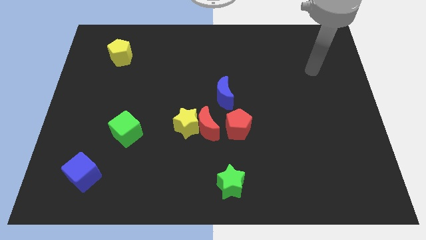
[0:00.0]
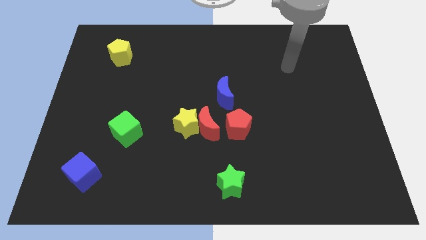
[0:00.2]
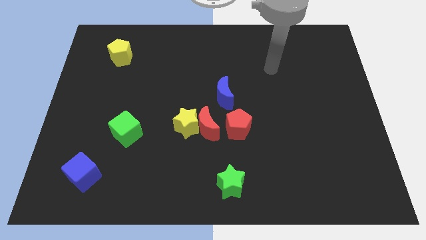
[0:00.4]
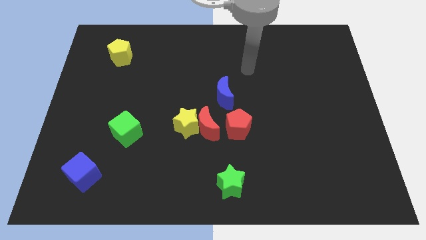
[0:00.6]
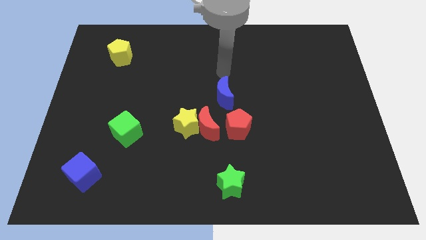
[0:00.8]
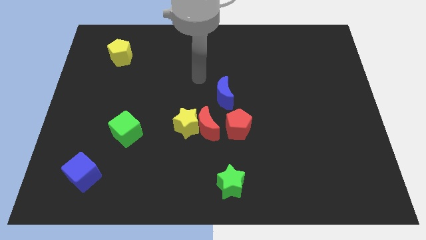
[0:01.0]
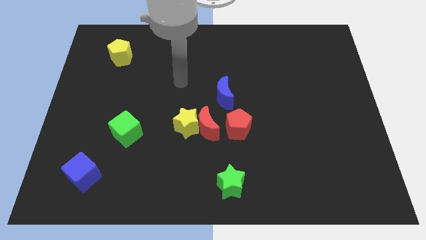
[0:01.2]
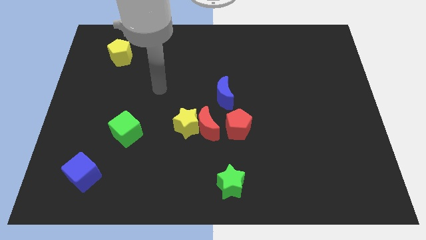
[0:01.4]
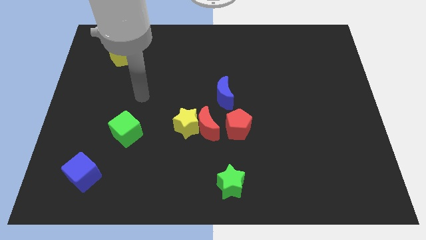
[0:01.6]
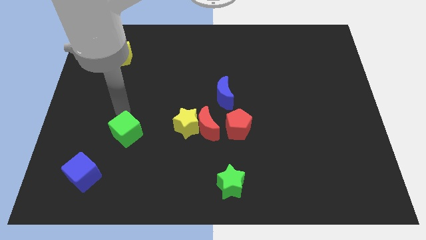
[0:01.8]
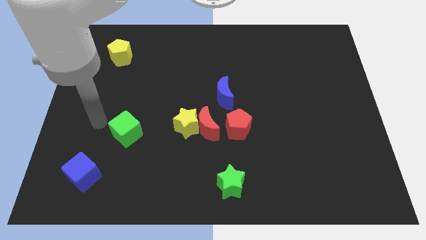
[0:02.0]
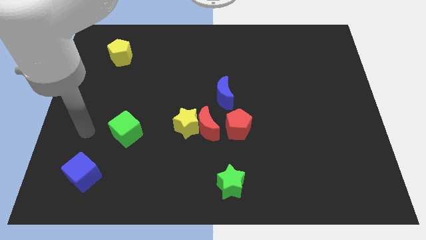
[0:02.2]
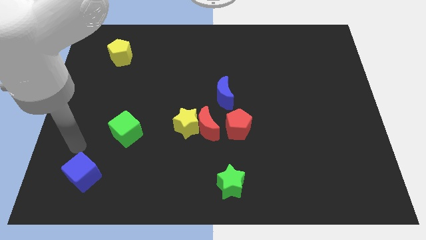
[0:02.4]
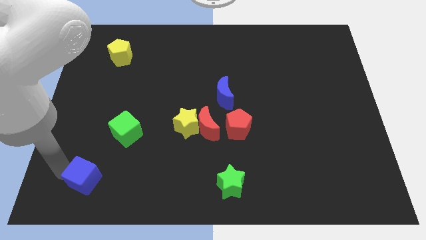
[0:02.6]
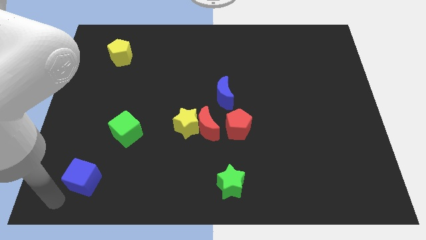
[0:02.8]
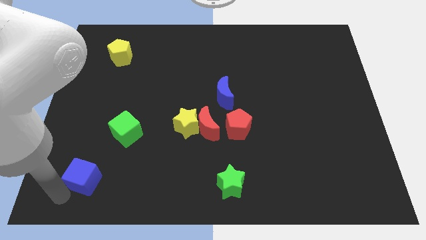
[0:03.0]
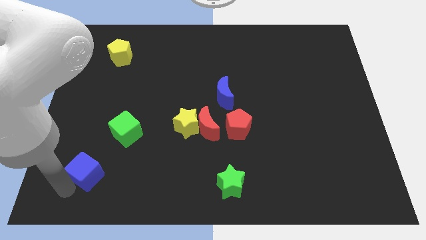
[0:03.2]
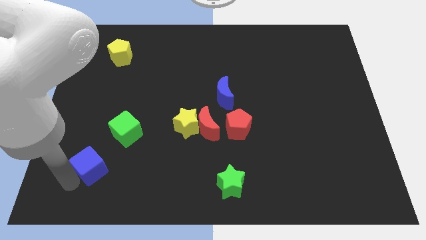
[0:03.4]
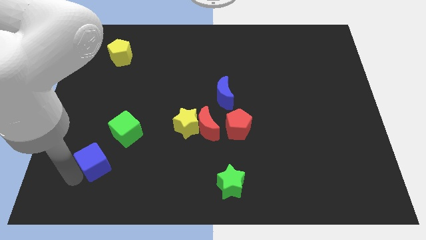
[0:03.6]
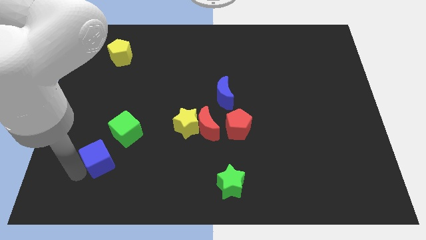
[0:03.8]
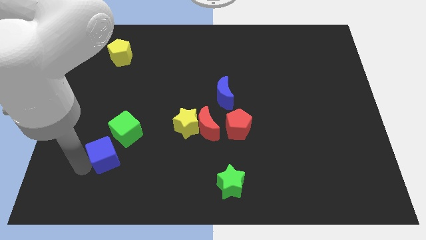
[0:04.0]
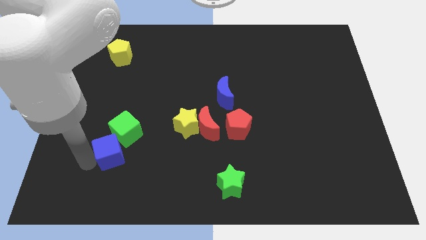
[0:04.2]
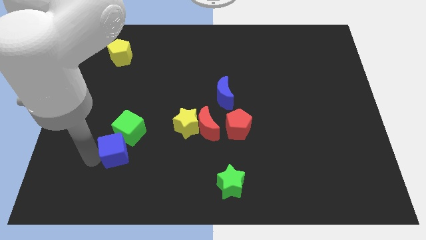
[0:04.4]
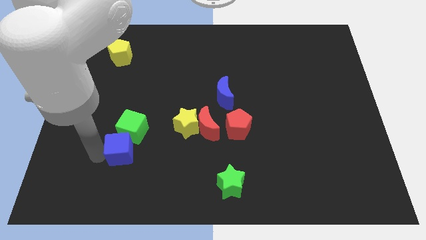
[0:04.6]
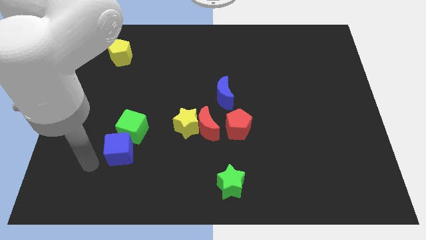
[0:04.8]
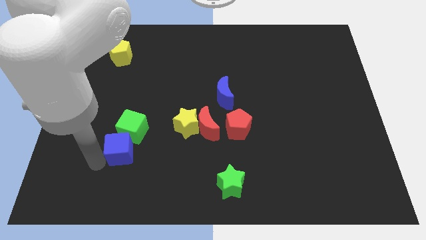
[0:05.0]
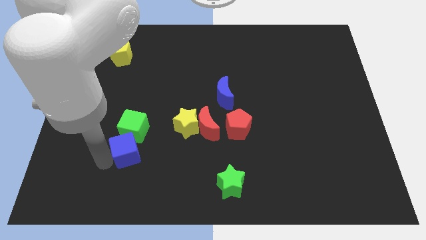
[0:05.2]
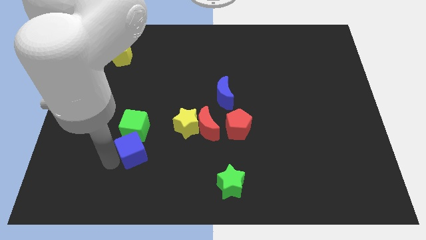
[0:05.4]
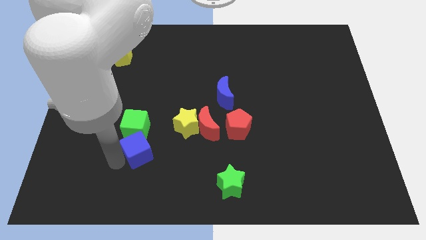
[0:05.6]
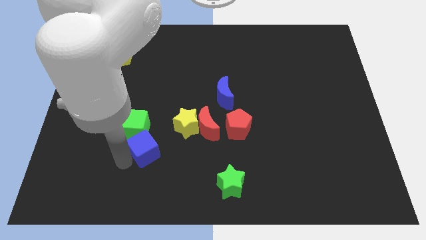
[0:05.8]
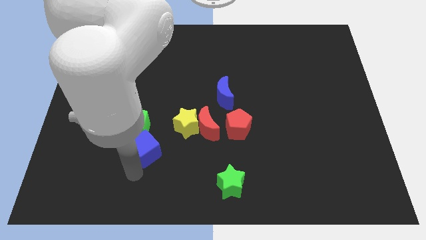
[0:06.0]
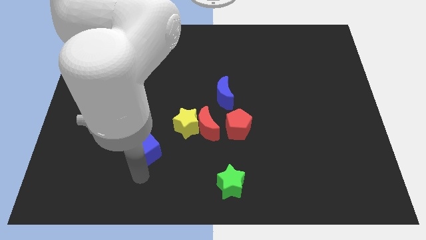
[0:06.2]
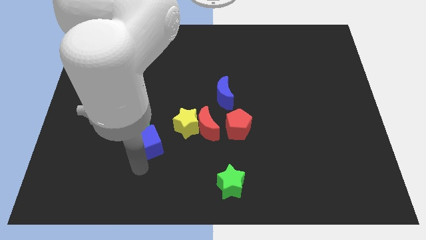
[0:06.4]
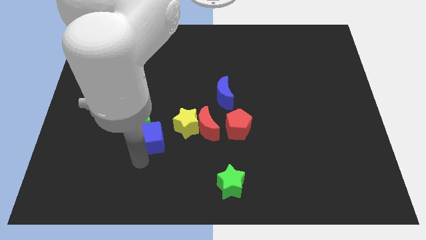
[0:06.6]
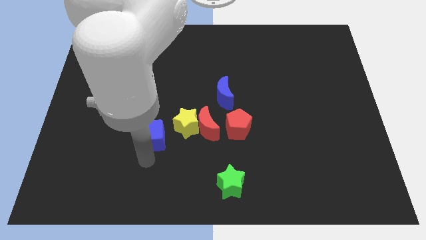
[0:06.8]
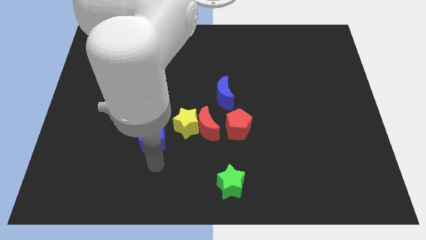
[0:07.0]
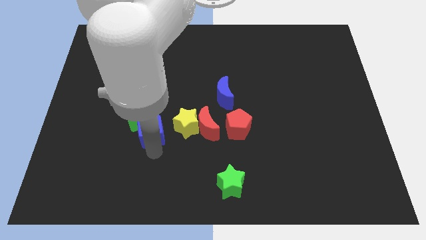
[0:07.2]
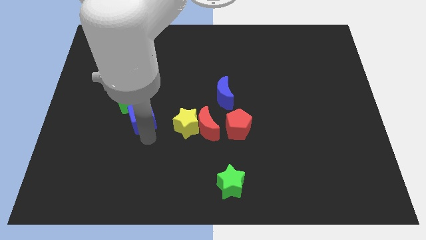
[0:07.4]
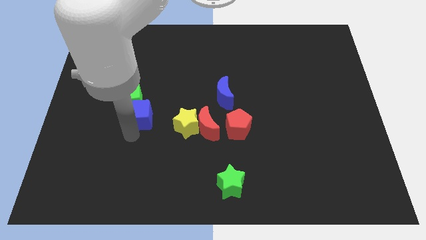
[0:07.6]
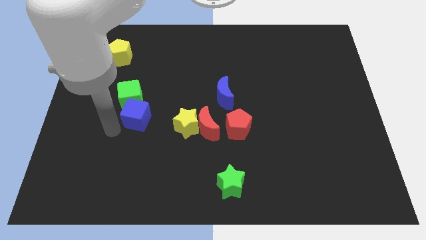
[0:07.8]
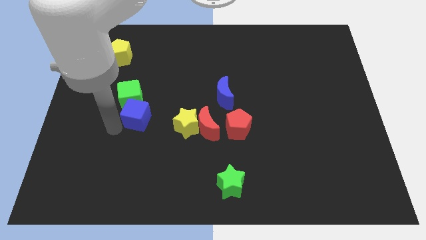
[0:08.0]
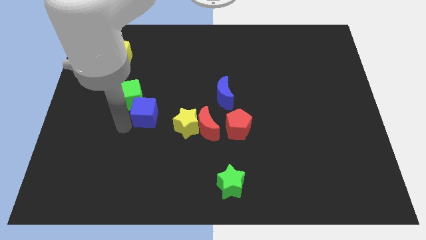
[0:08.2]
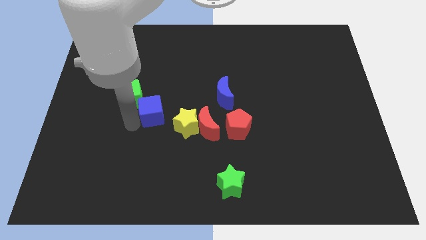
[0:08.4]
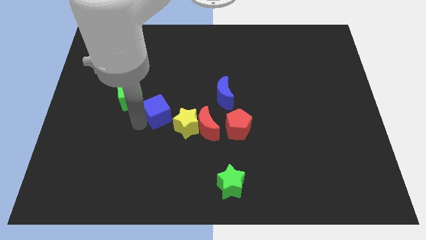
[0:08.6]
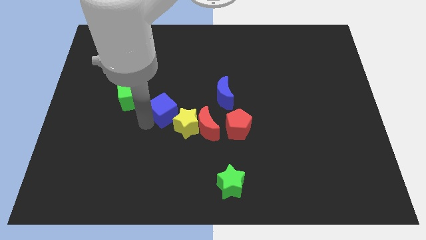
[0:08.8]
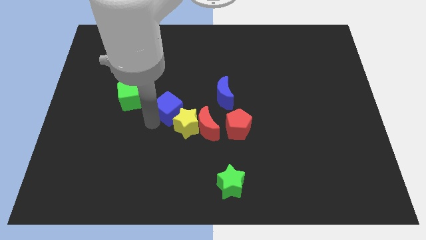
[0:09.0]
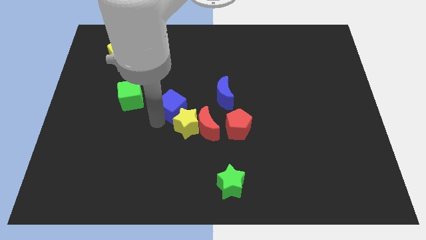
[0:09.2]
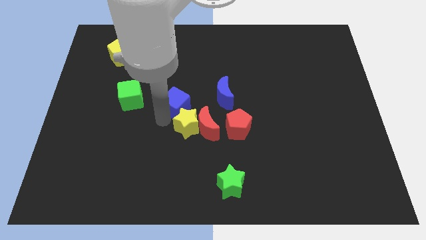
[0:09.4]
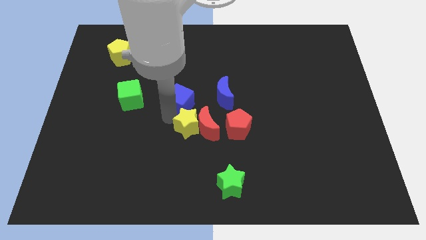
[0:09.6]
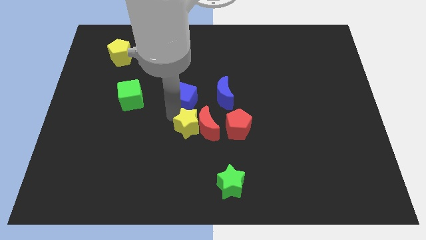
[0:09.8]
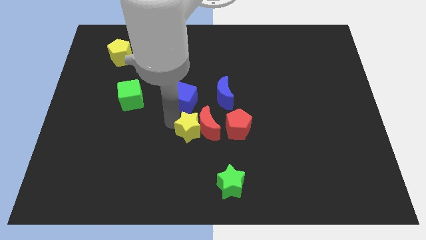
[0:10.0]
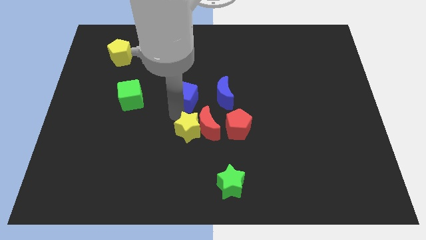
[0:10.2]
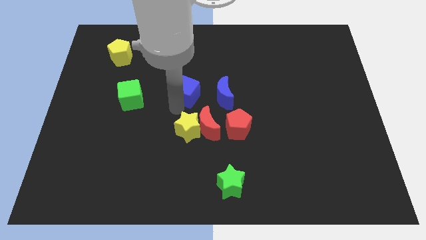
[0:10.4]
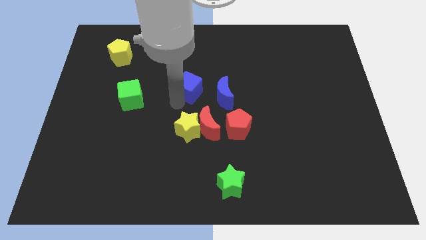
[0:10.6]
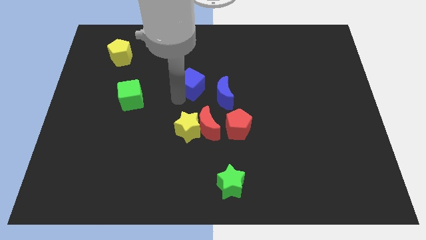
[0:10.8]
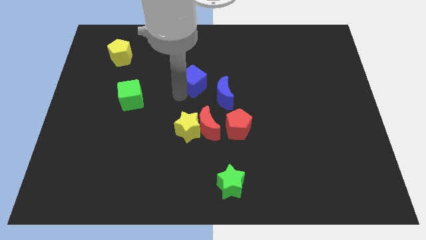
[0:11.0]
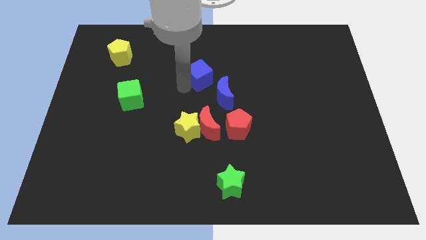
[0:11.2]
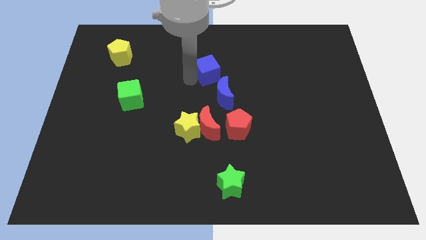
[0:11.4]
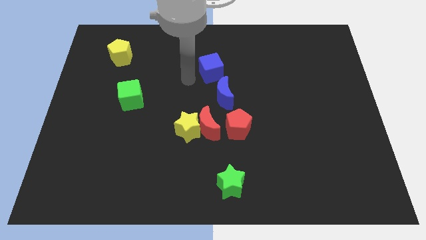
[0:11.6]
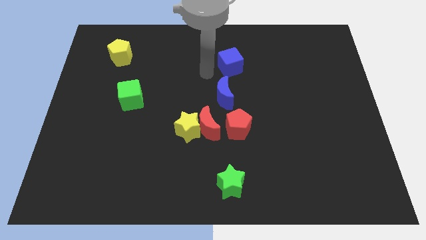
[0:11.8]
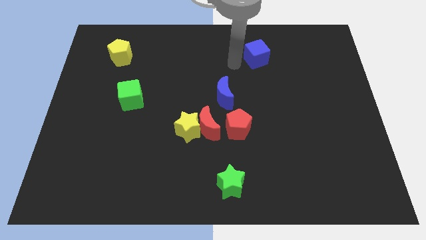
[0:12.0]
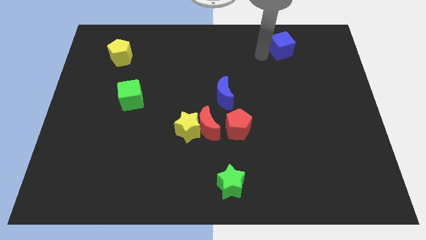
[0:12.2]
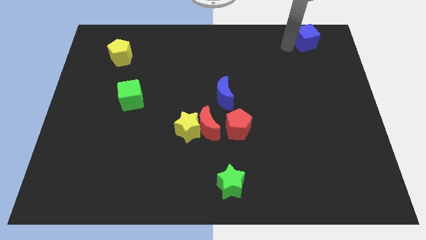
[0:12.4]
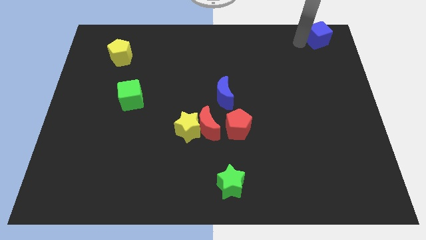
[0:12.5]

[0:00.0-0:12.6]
slide the blue cube to the top right corner
